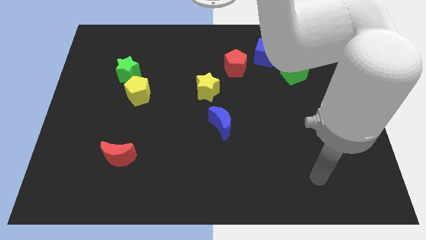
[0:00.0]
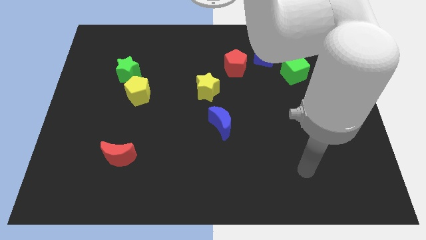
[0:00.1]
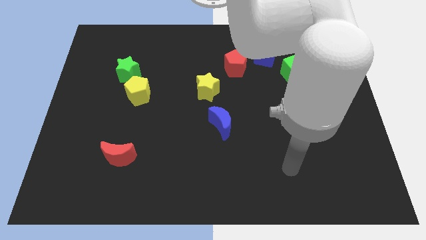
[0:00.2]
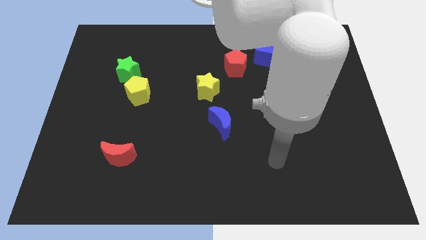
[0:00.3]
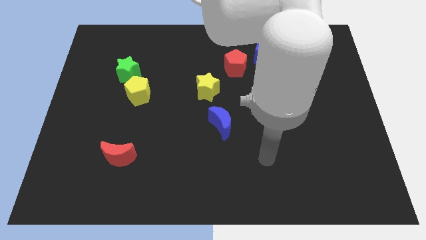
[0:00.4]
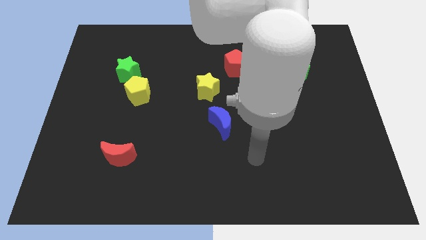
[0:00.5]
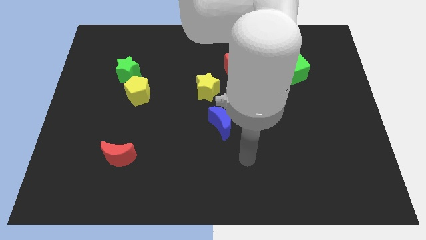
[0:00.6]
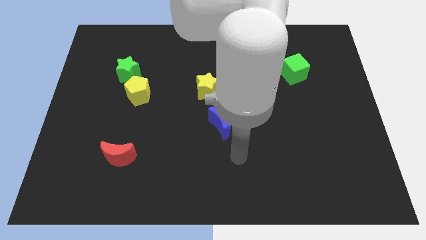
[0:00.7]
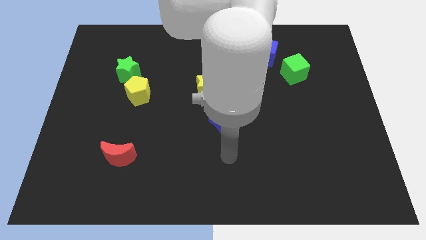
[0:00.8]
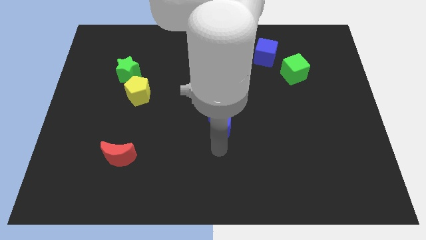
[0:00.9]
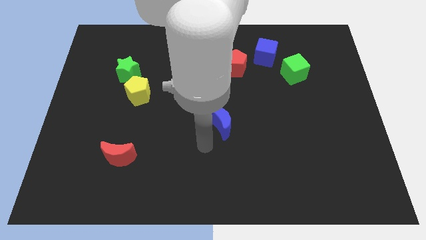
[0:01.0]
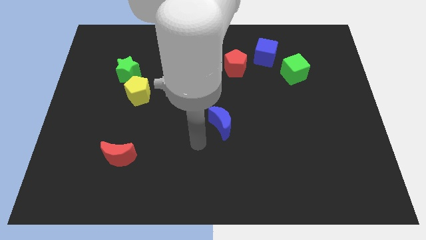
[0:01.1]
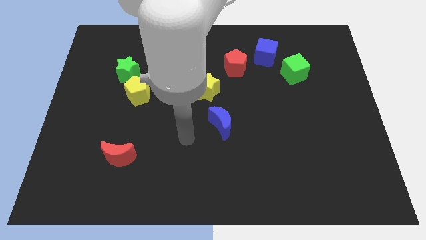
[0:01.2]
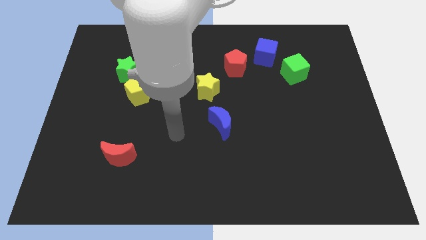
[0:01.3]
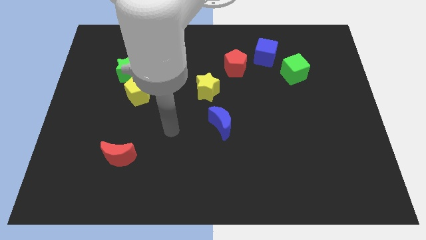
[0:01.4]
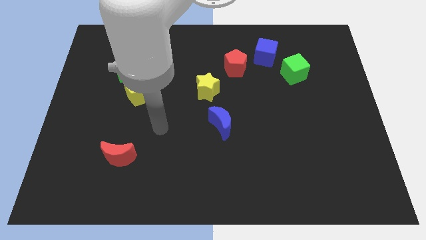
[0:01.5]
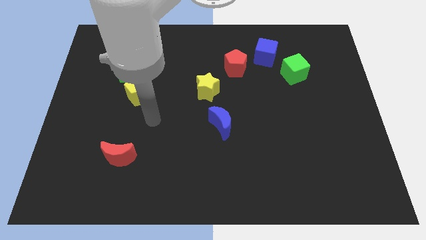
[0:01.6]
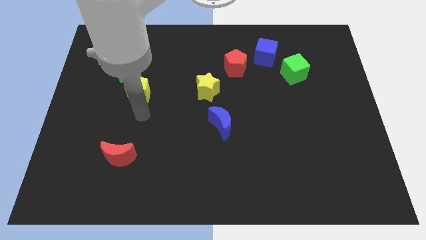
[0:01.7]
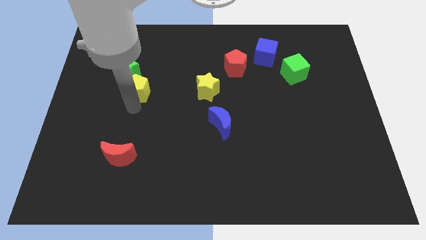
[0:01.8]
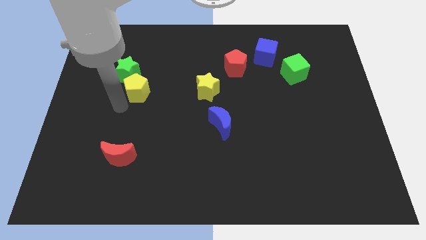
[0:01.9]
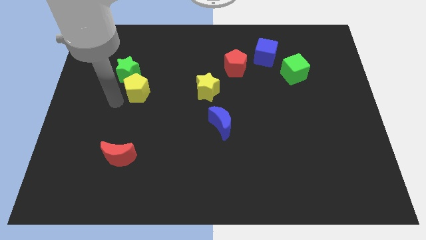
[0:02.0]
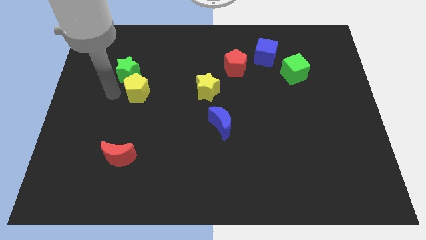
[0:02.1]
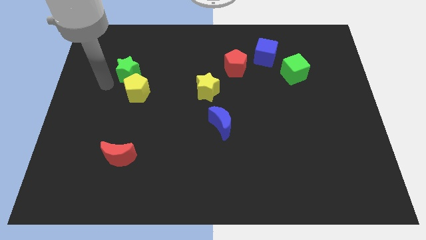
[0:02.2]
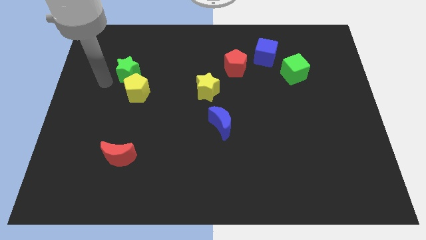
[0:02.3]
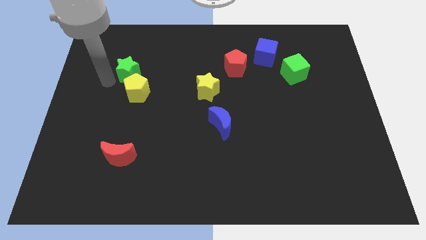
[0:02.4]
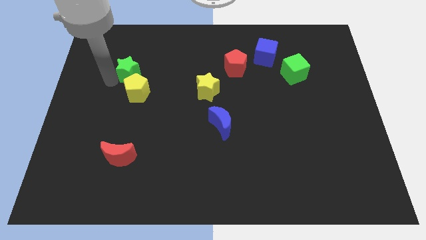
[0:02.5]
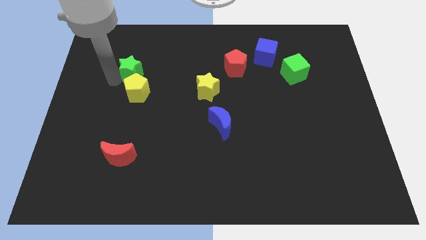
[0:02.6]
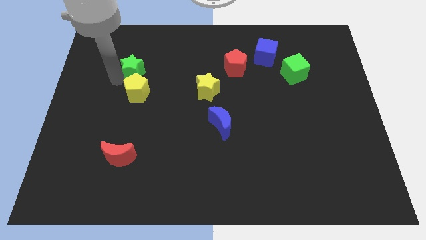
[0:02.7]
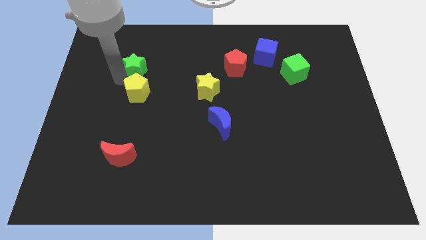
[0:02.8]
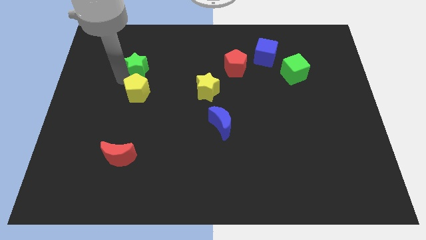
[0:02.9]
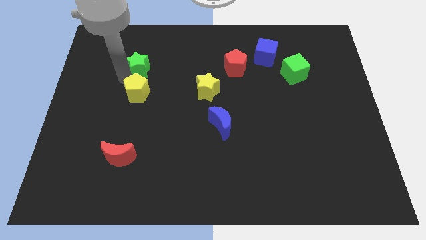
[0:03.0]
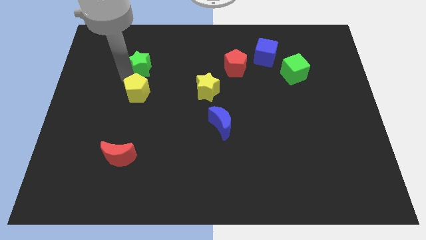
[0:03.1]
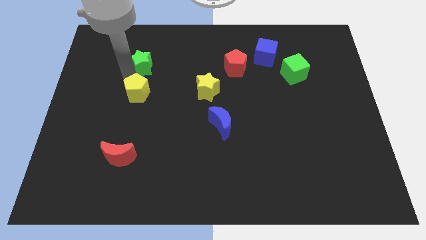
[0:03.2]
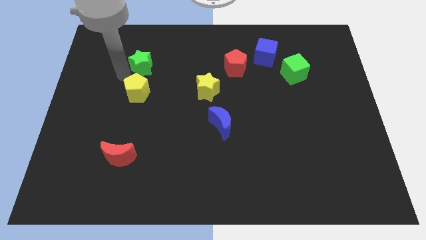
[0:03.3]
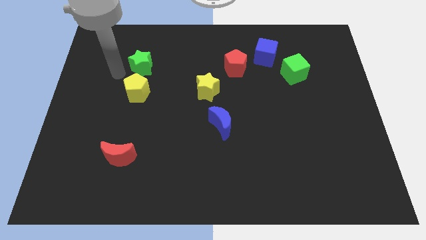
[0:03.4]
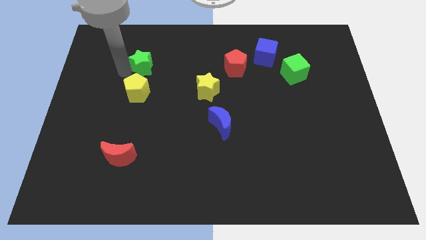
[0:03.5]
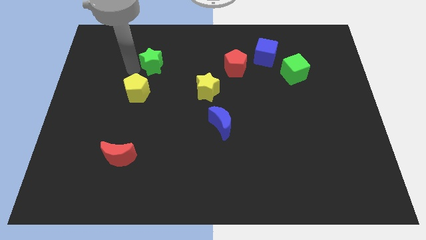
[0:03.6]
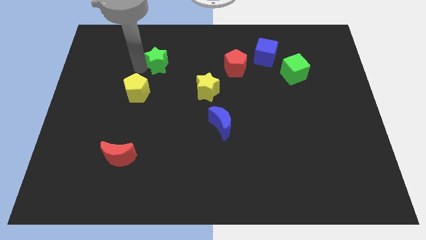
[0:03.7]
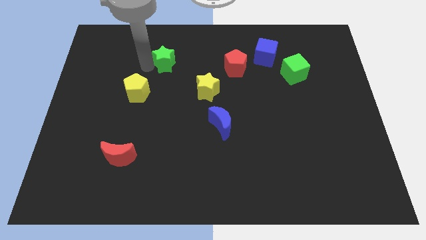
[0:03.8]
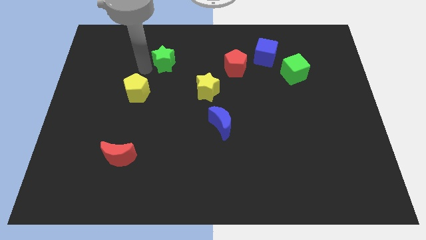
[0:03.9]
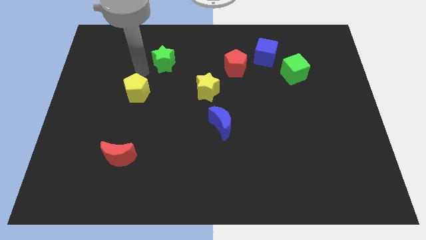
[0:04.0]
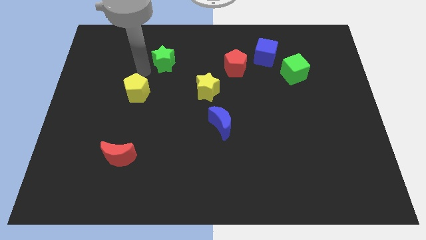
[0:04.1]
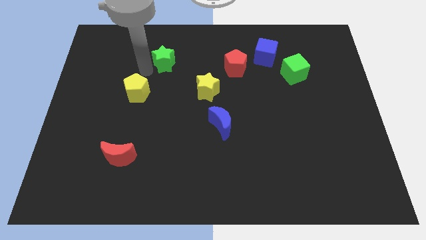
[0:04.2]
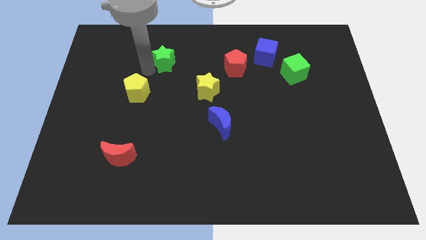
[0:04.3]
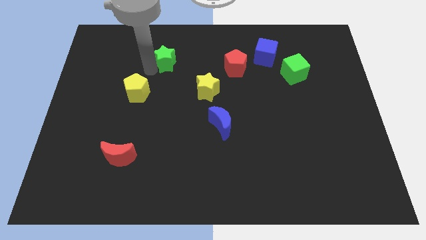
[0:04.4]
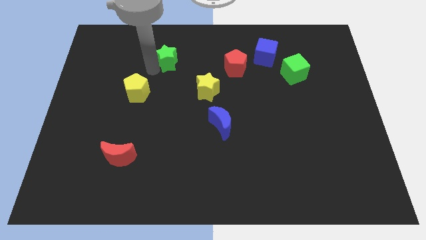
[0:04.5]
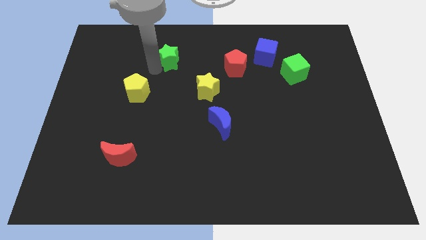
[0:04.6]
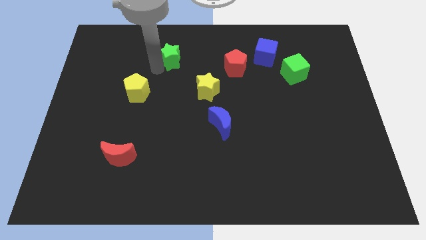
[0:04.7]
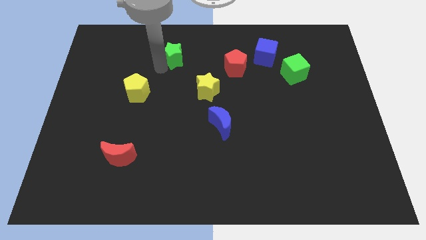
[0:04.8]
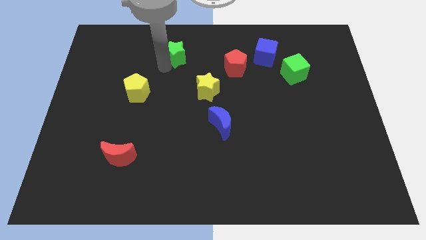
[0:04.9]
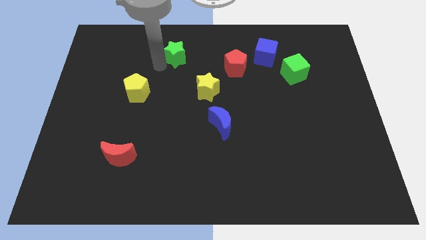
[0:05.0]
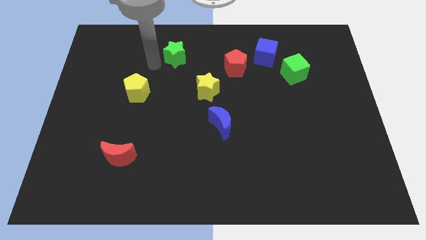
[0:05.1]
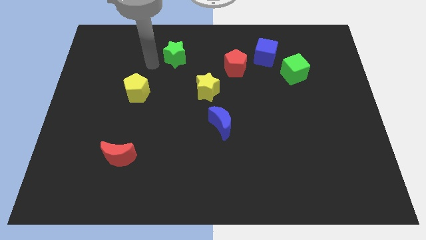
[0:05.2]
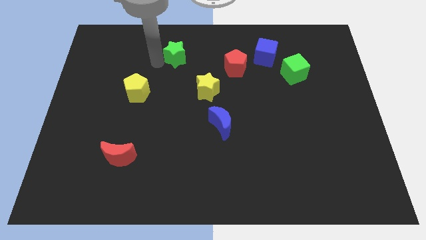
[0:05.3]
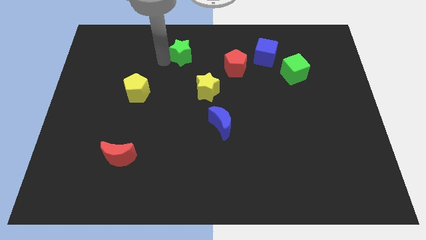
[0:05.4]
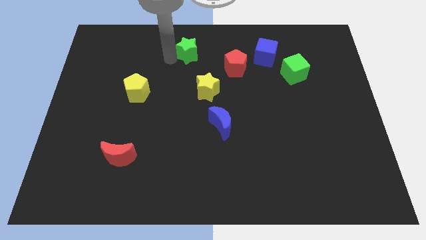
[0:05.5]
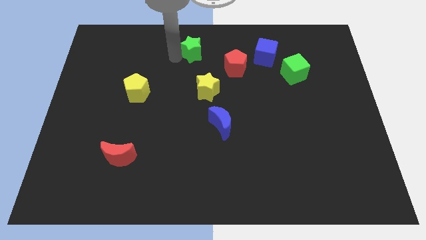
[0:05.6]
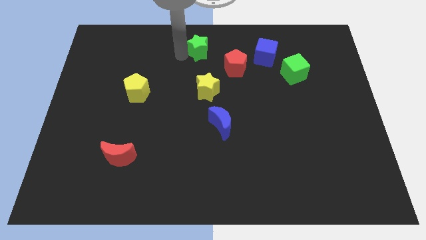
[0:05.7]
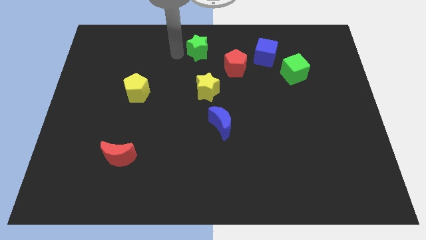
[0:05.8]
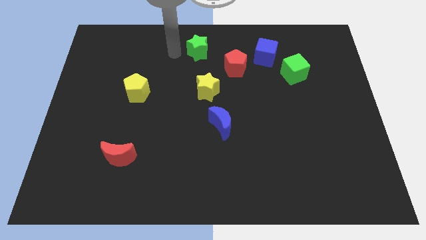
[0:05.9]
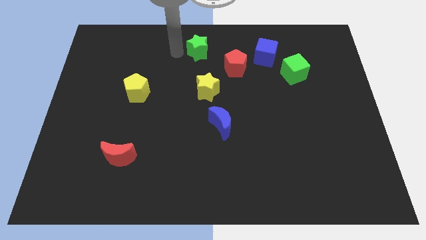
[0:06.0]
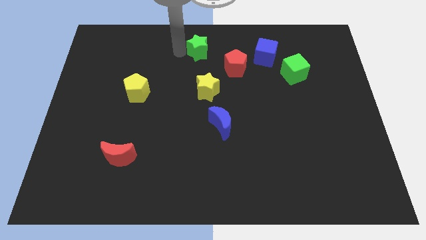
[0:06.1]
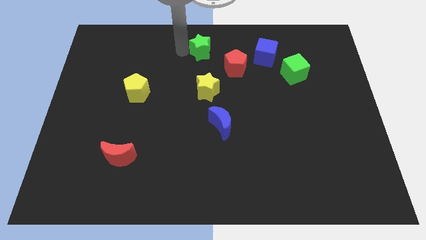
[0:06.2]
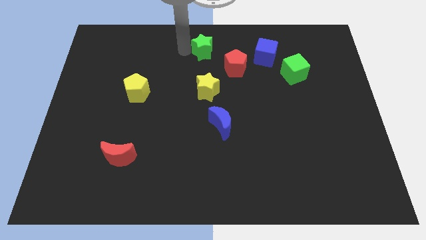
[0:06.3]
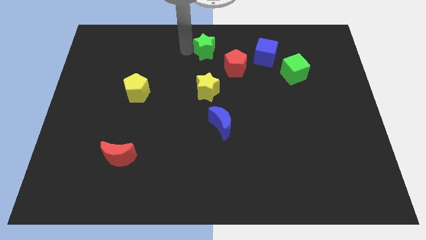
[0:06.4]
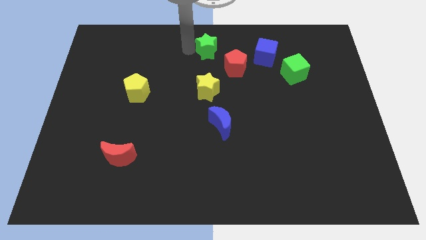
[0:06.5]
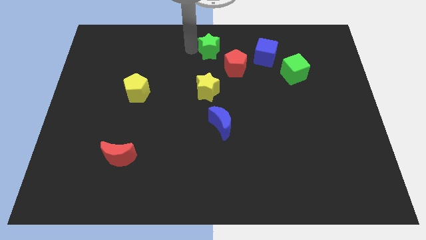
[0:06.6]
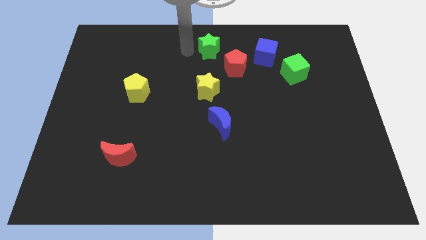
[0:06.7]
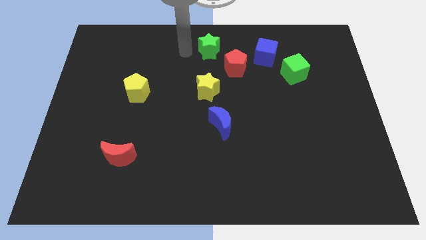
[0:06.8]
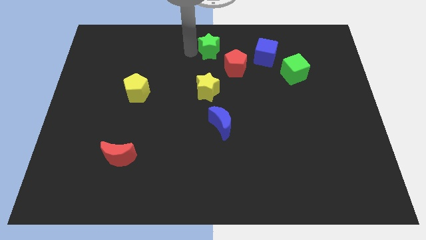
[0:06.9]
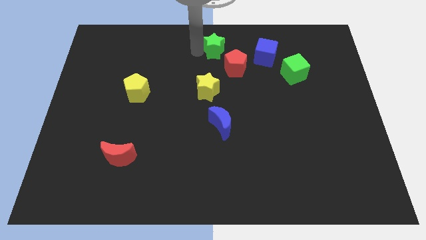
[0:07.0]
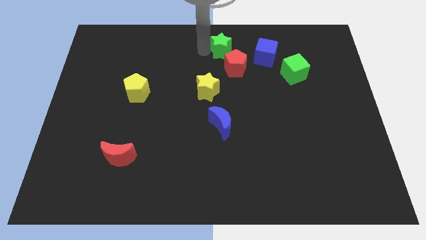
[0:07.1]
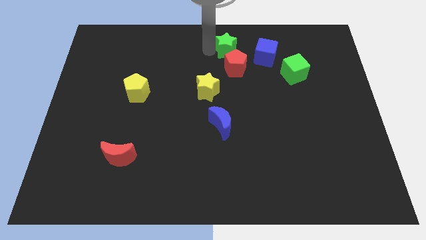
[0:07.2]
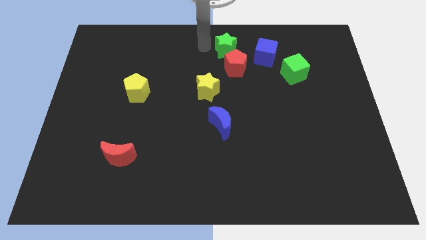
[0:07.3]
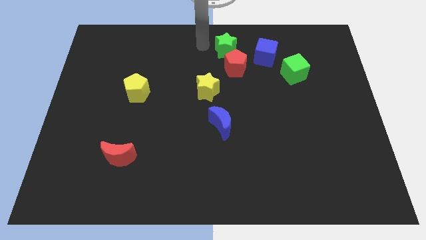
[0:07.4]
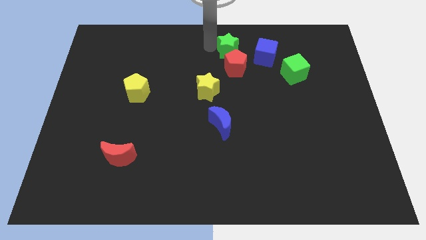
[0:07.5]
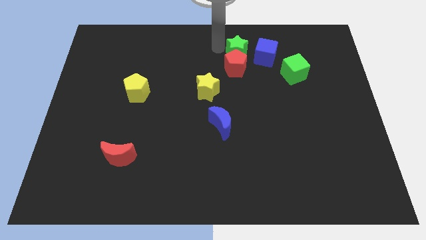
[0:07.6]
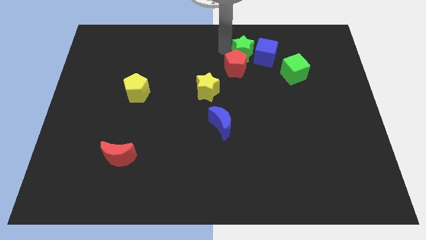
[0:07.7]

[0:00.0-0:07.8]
push the green star close to the blue cube
